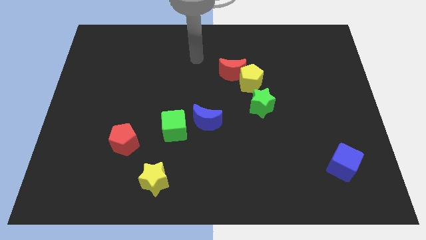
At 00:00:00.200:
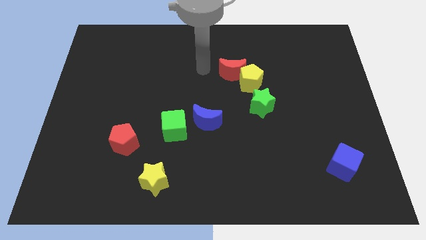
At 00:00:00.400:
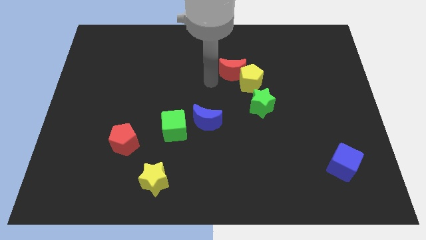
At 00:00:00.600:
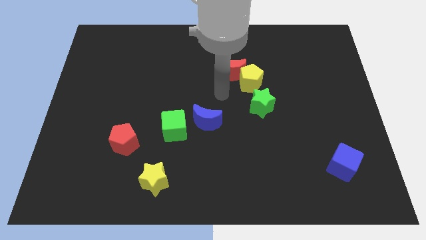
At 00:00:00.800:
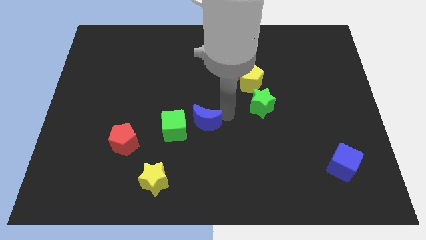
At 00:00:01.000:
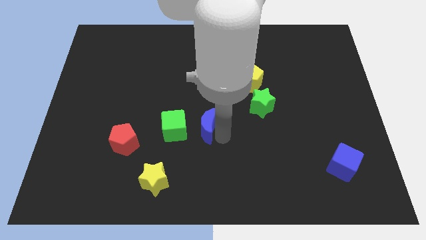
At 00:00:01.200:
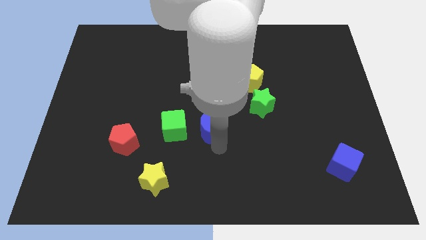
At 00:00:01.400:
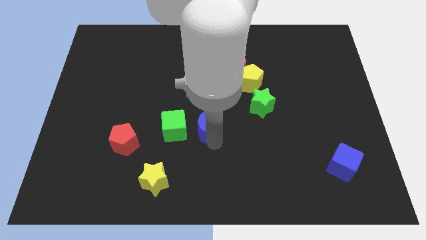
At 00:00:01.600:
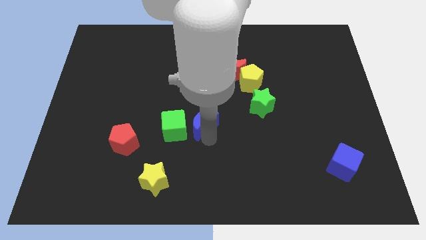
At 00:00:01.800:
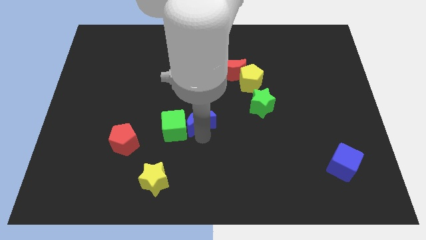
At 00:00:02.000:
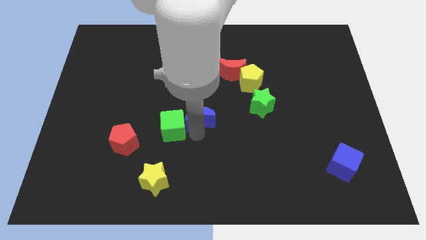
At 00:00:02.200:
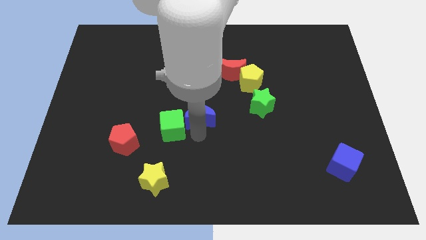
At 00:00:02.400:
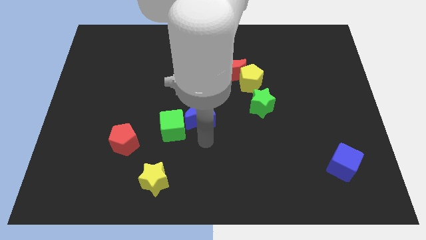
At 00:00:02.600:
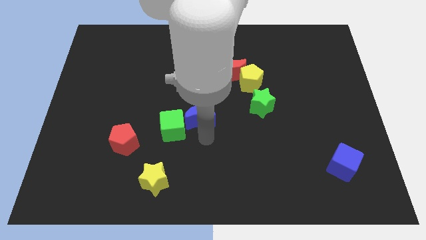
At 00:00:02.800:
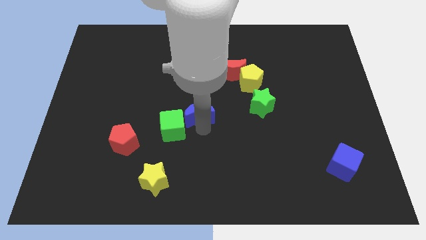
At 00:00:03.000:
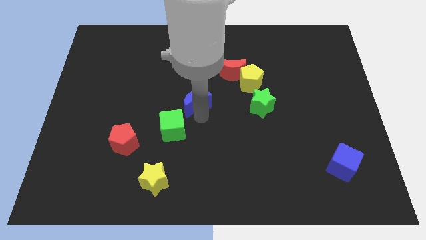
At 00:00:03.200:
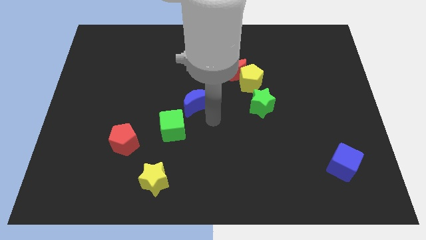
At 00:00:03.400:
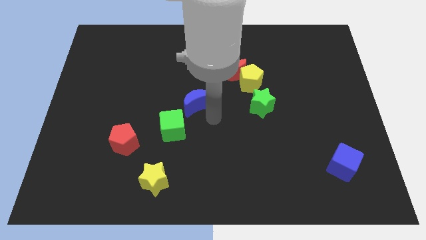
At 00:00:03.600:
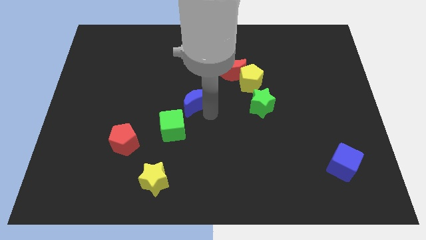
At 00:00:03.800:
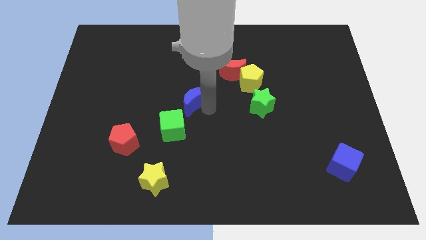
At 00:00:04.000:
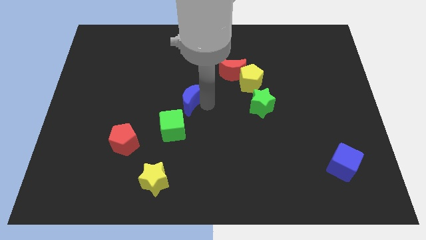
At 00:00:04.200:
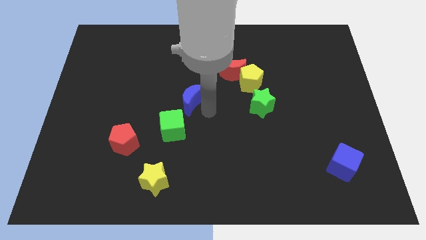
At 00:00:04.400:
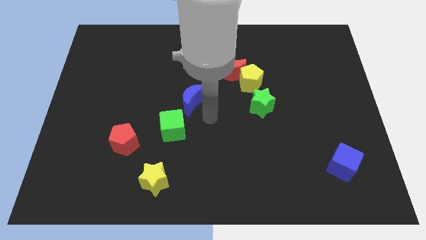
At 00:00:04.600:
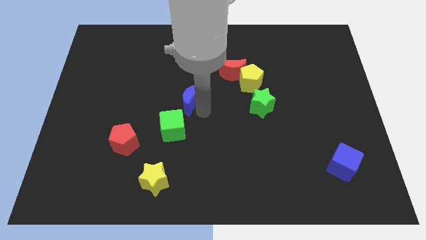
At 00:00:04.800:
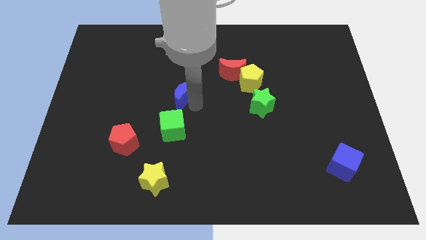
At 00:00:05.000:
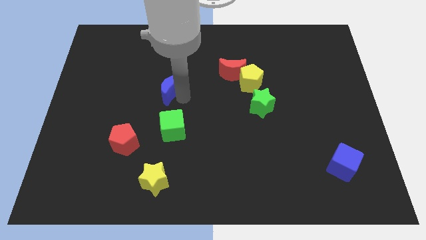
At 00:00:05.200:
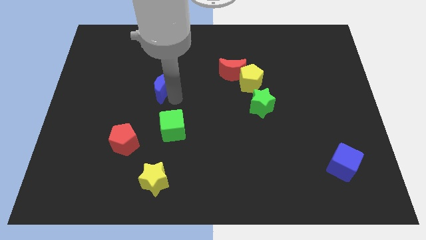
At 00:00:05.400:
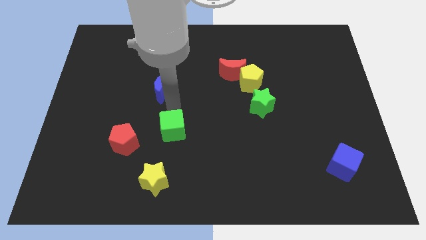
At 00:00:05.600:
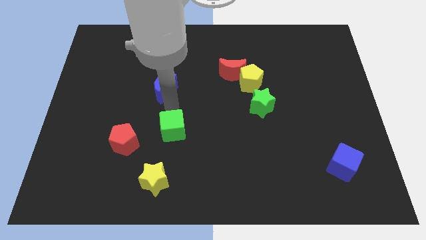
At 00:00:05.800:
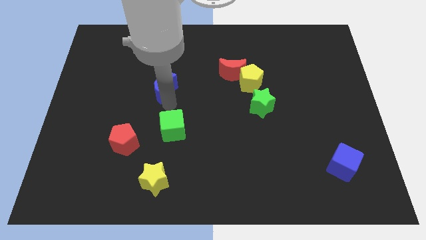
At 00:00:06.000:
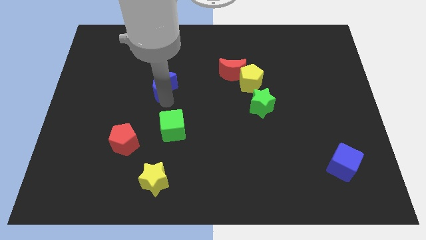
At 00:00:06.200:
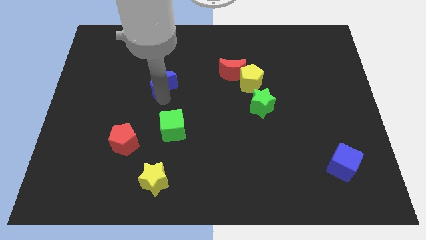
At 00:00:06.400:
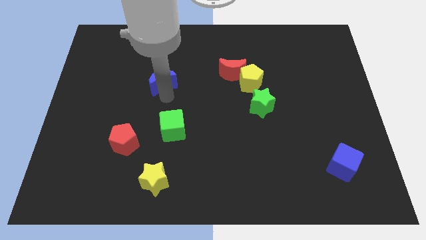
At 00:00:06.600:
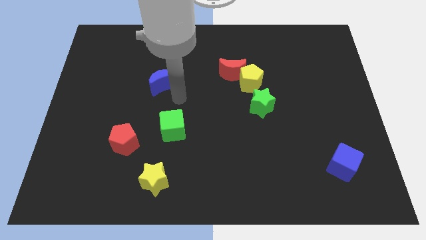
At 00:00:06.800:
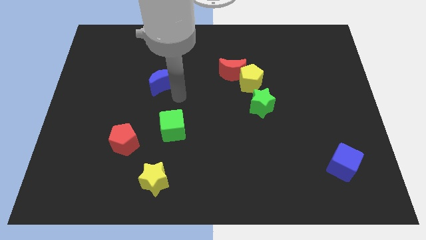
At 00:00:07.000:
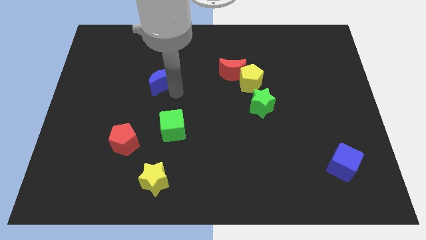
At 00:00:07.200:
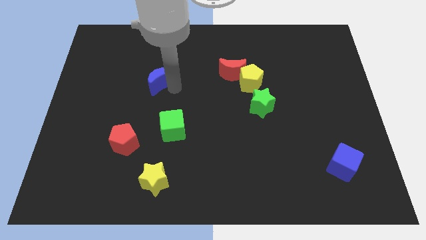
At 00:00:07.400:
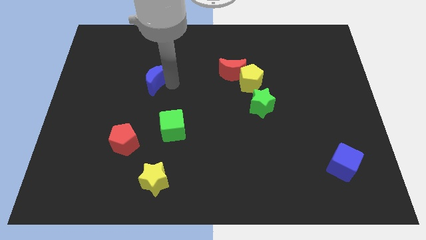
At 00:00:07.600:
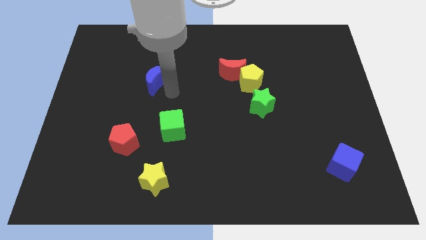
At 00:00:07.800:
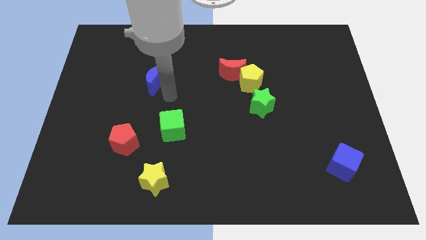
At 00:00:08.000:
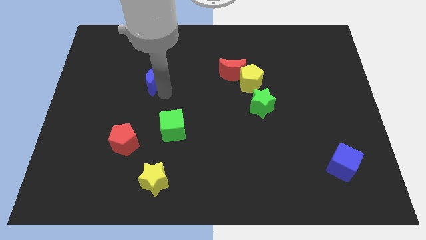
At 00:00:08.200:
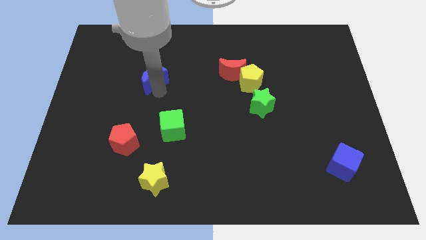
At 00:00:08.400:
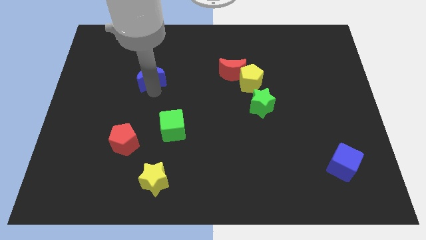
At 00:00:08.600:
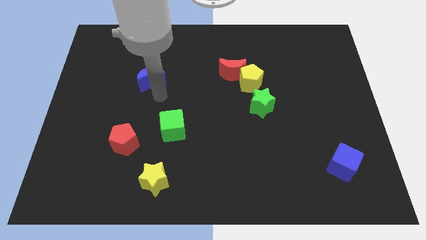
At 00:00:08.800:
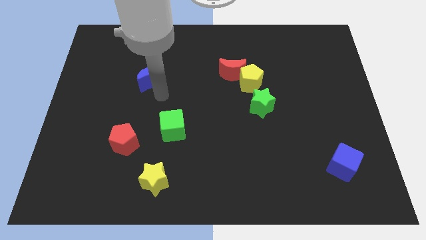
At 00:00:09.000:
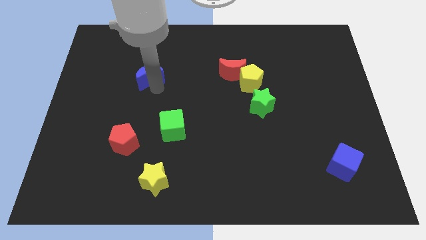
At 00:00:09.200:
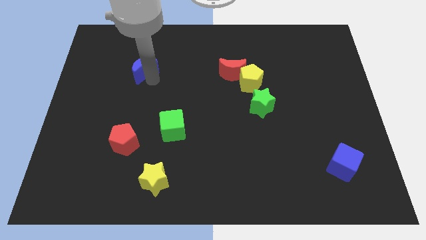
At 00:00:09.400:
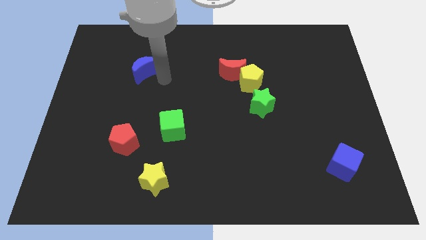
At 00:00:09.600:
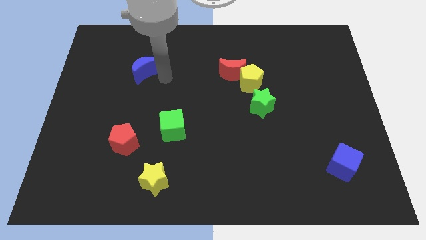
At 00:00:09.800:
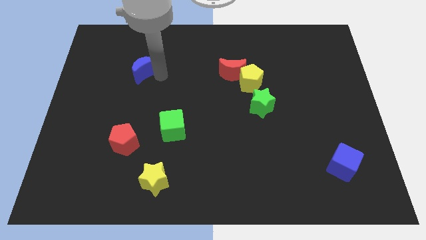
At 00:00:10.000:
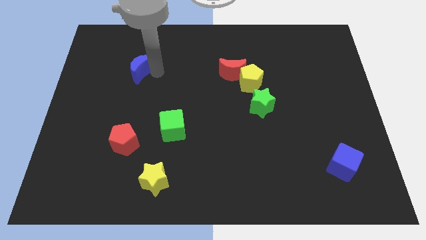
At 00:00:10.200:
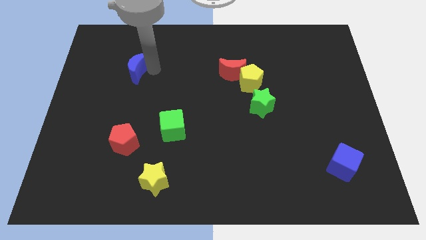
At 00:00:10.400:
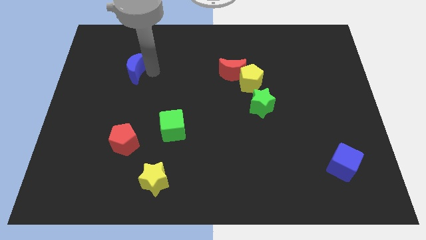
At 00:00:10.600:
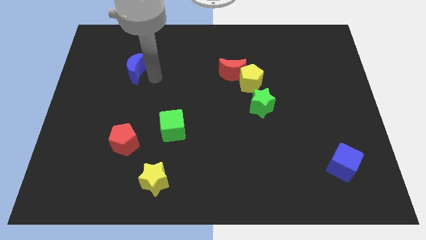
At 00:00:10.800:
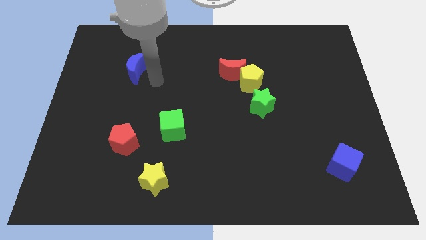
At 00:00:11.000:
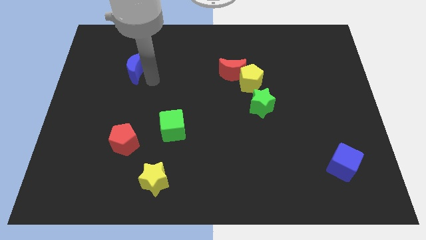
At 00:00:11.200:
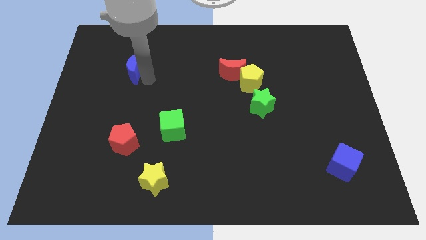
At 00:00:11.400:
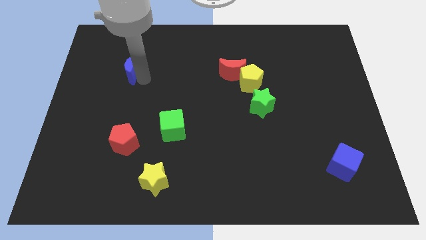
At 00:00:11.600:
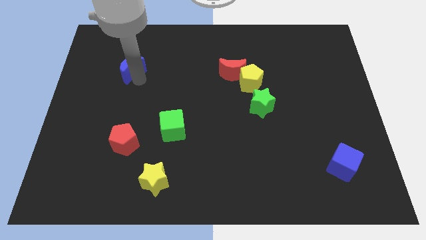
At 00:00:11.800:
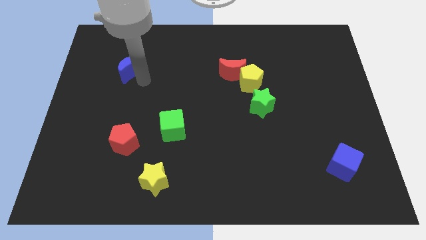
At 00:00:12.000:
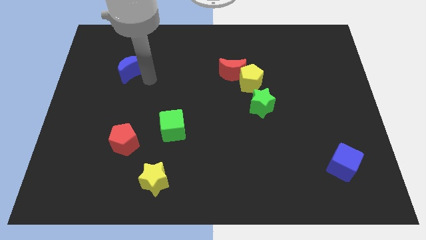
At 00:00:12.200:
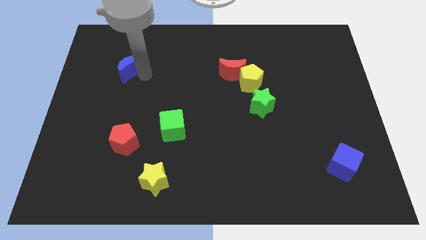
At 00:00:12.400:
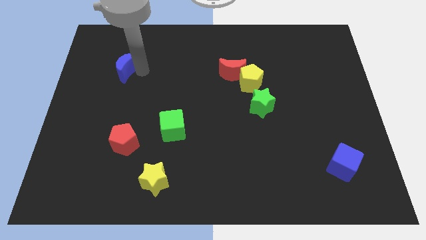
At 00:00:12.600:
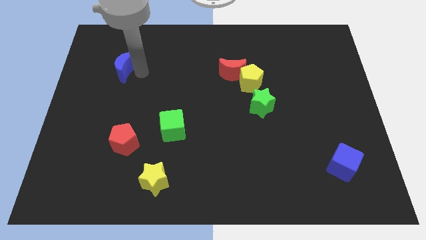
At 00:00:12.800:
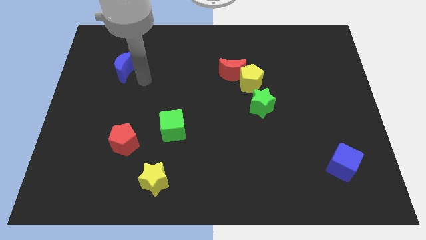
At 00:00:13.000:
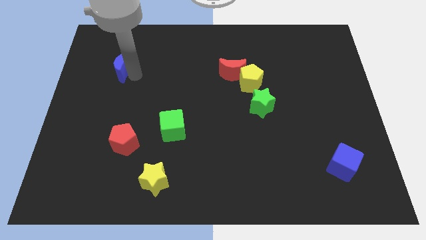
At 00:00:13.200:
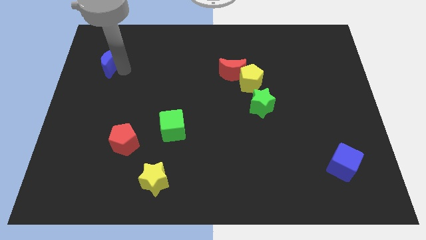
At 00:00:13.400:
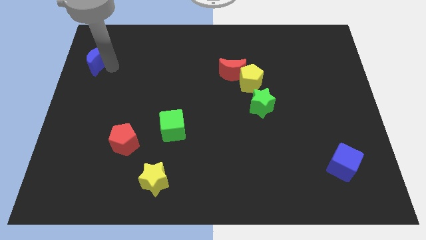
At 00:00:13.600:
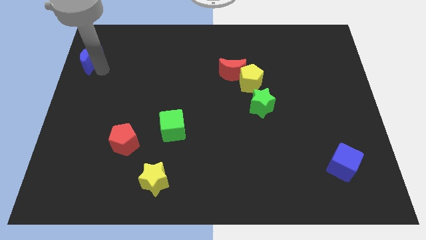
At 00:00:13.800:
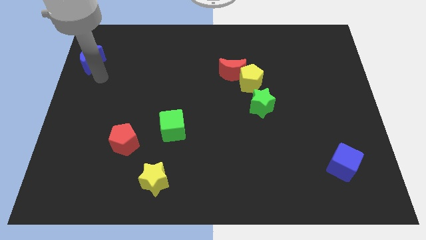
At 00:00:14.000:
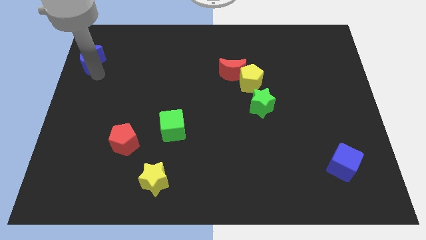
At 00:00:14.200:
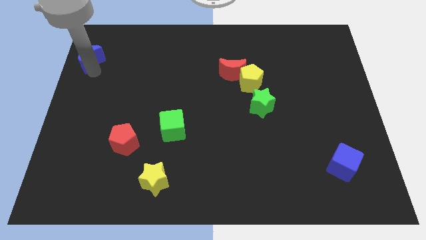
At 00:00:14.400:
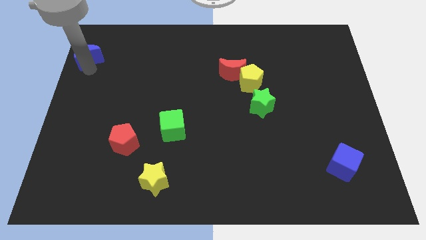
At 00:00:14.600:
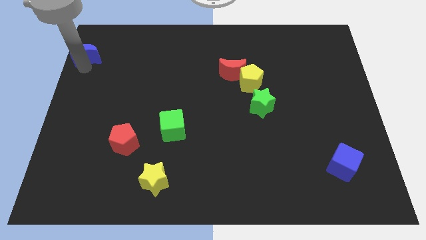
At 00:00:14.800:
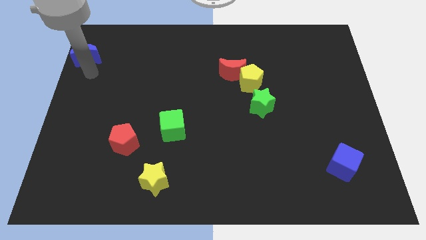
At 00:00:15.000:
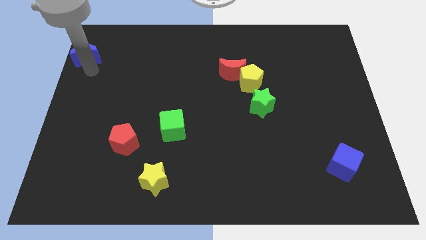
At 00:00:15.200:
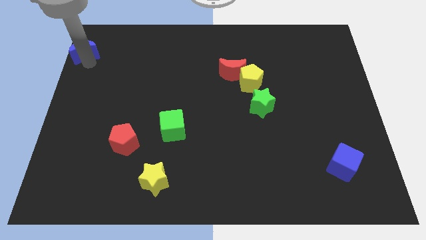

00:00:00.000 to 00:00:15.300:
put the blue moon to the upper left corner
